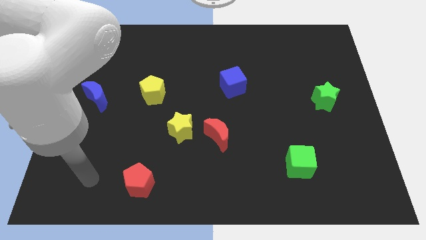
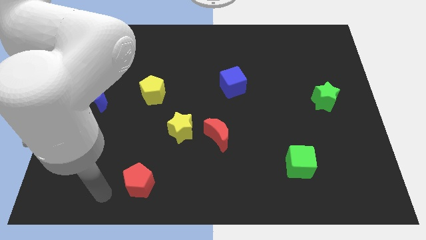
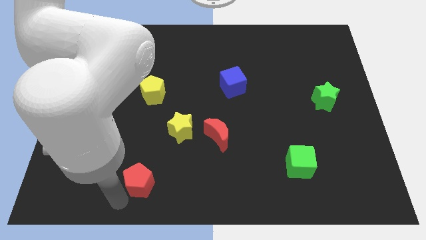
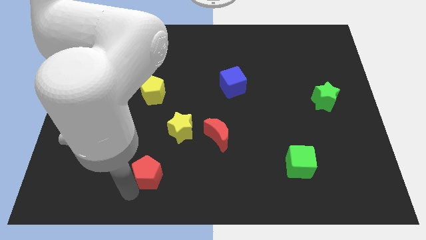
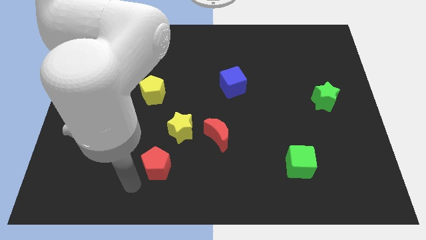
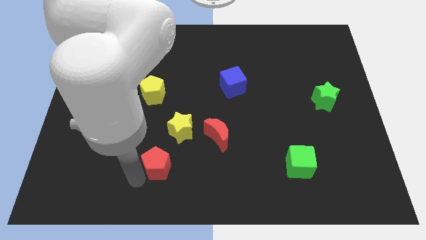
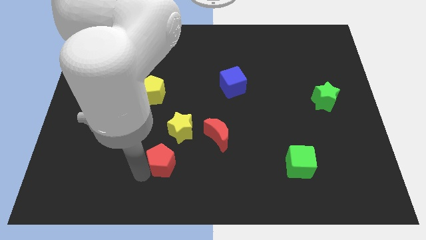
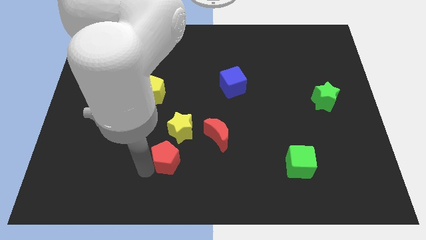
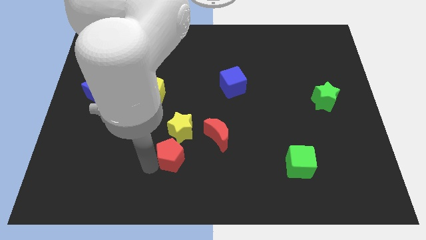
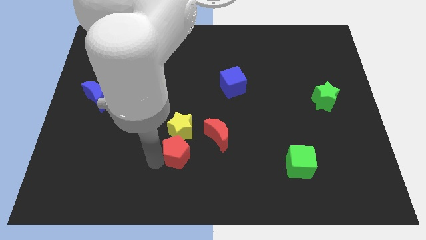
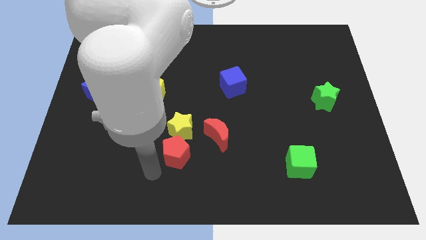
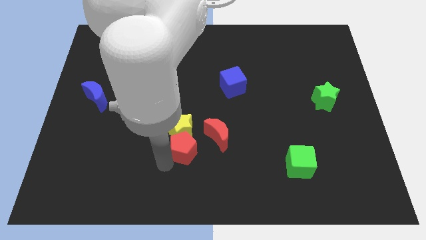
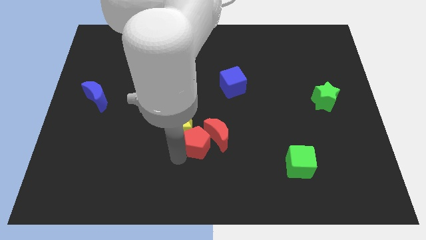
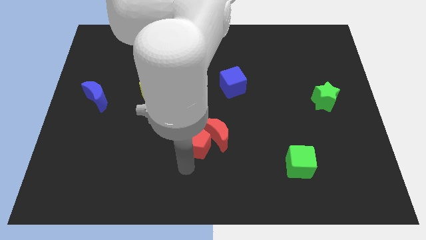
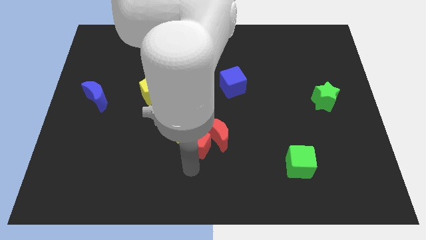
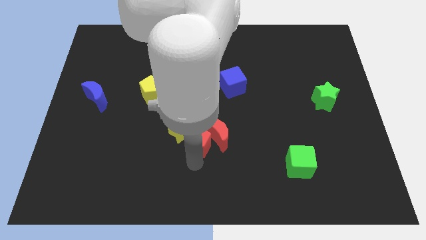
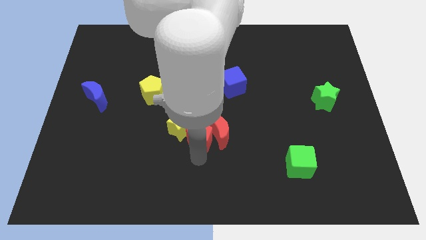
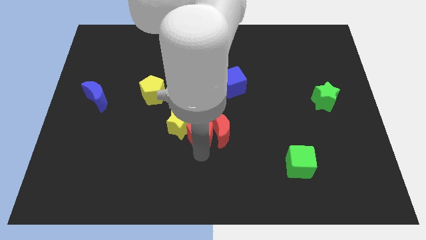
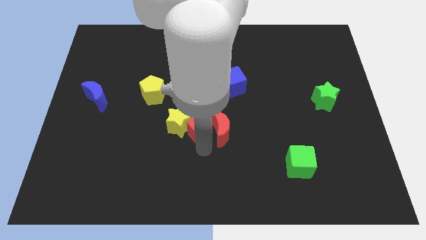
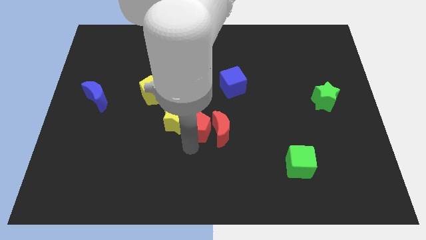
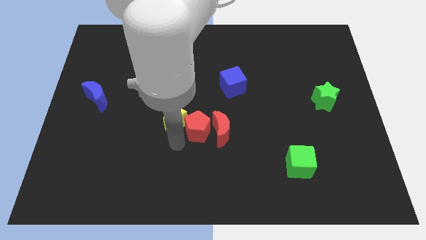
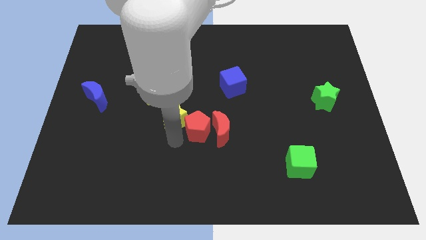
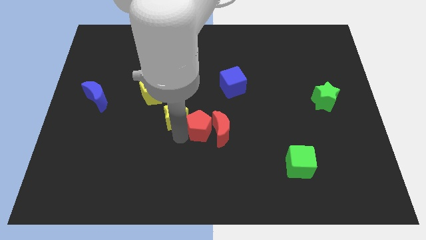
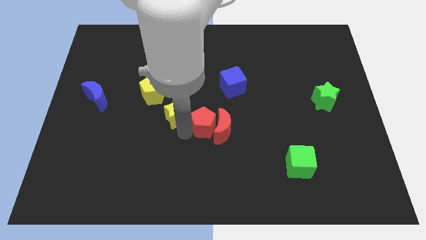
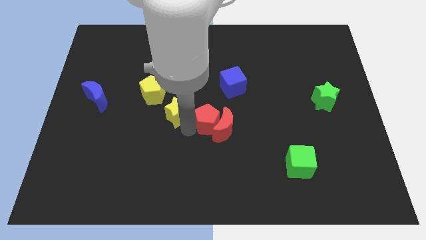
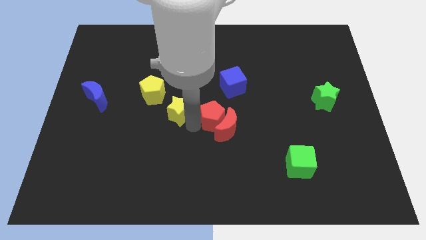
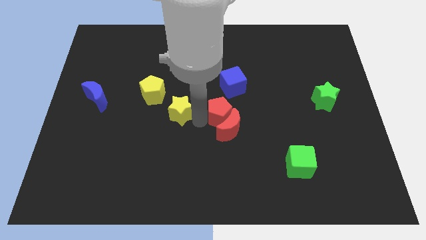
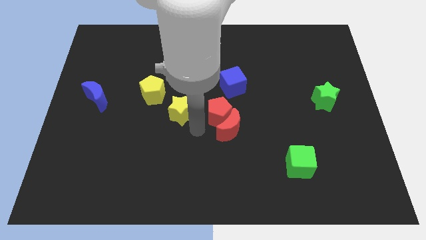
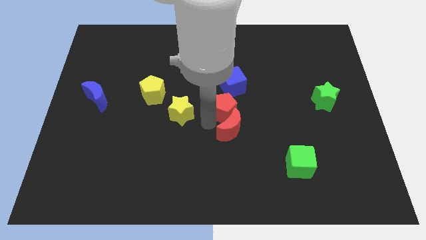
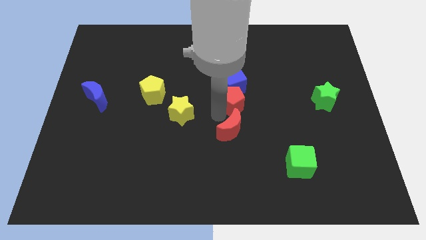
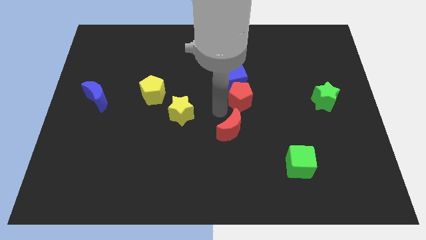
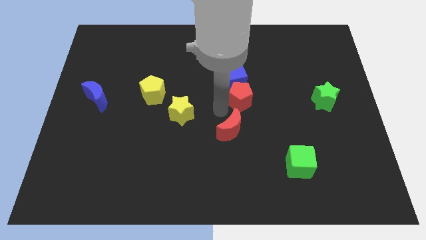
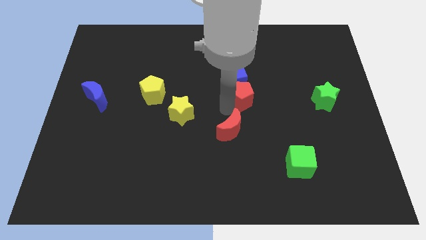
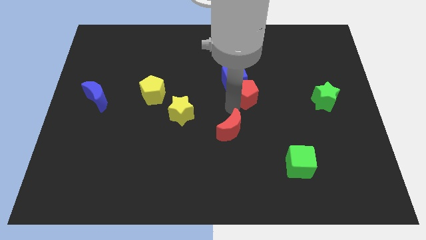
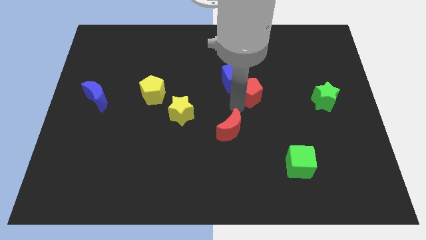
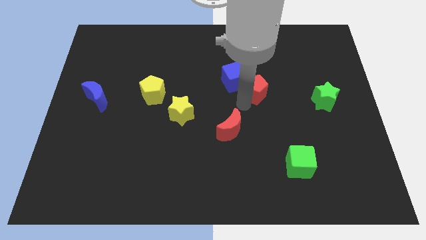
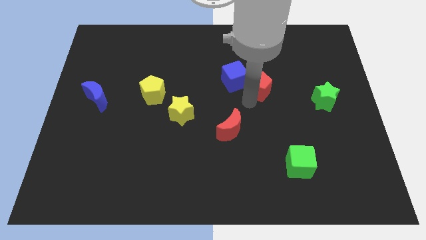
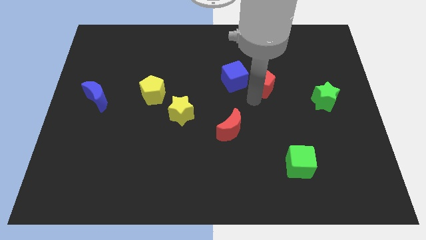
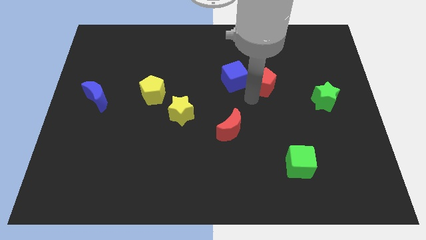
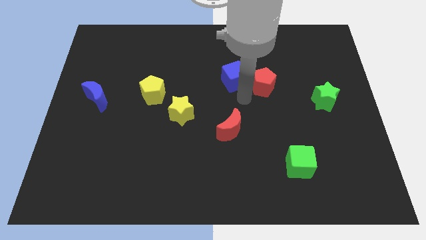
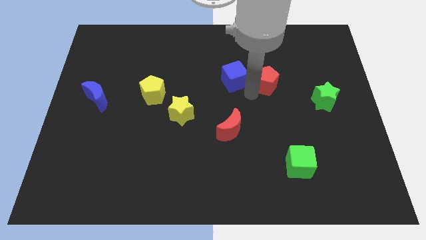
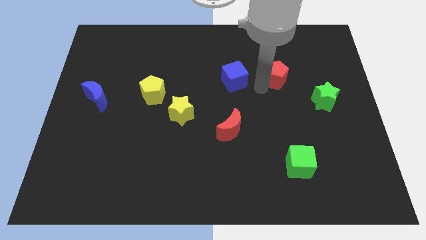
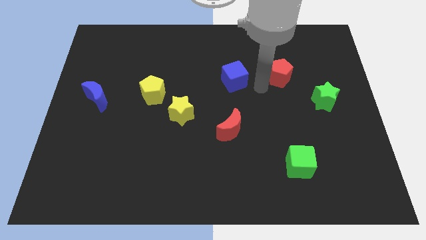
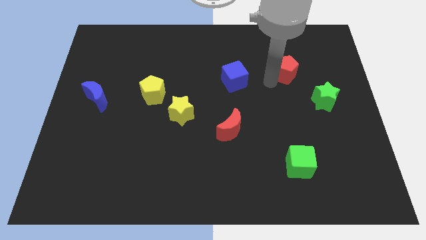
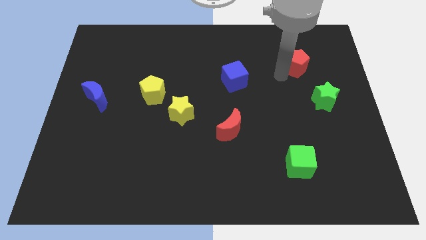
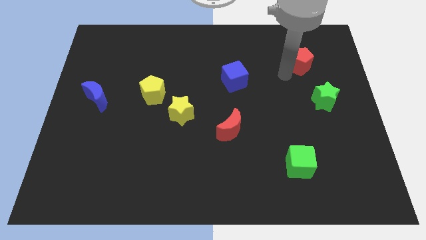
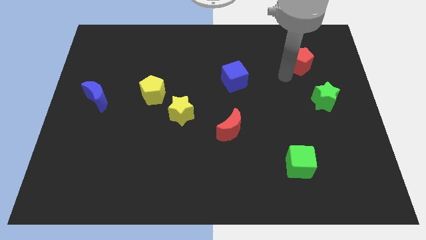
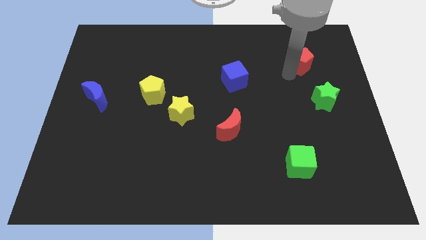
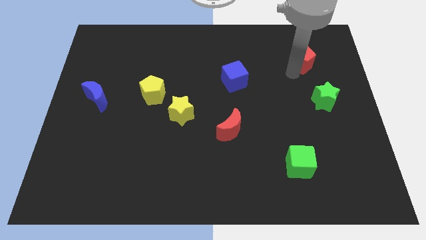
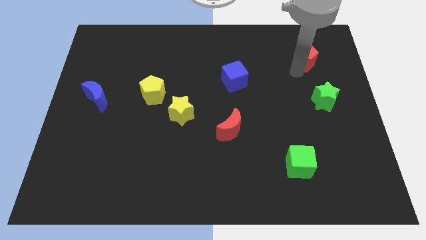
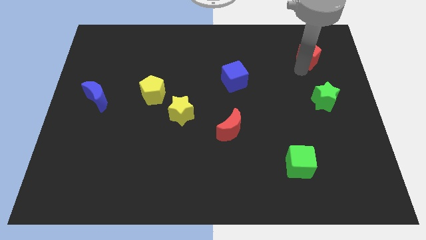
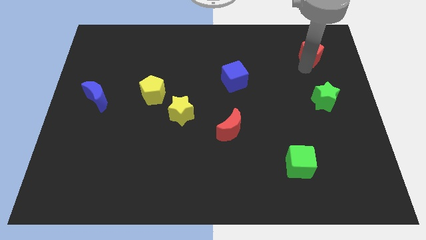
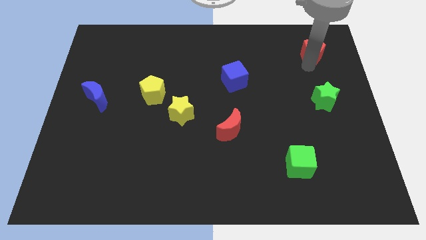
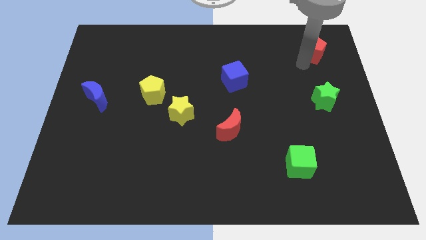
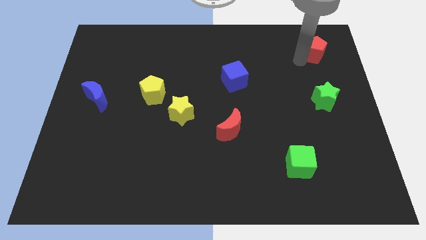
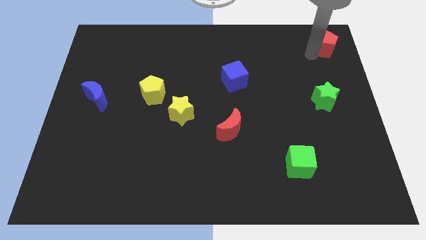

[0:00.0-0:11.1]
move the red pentagon to the top right
